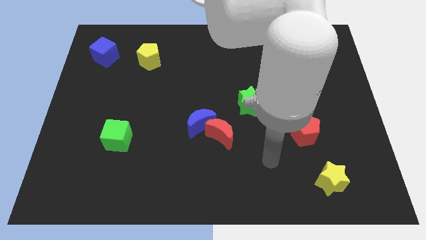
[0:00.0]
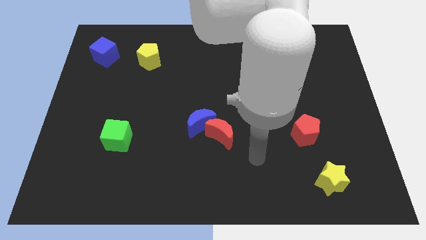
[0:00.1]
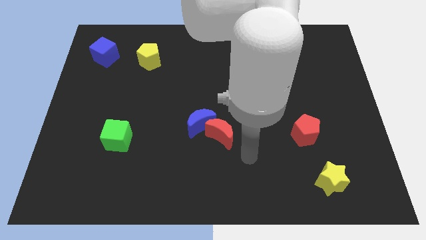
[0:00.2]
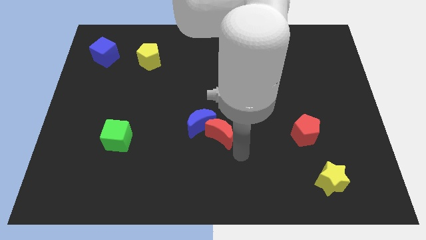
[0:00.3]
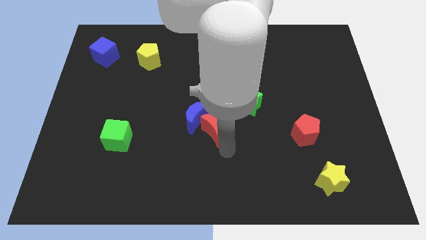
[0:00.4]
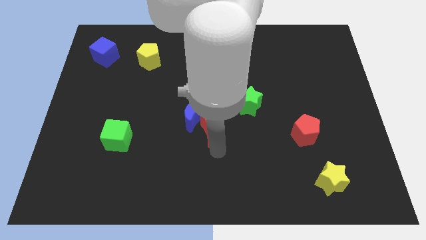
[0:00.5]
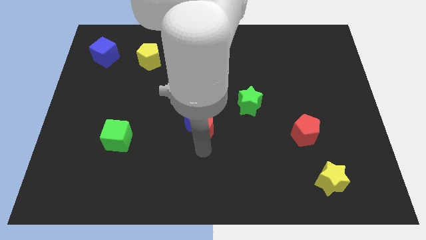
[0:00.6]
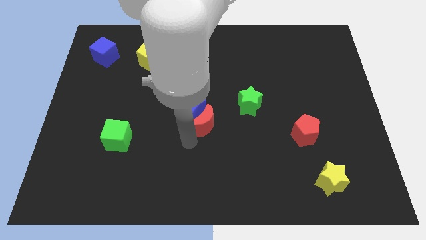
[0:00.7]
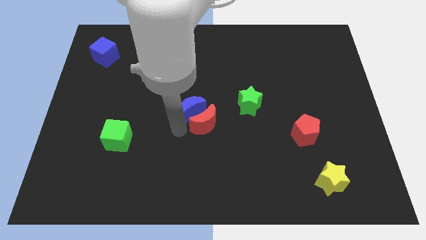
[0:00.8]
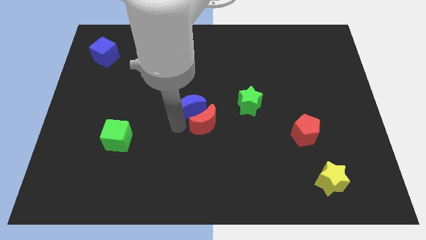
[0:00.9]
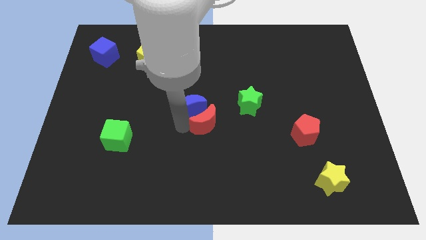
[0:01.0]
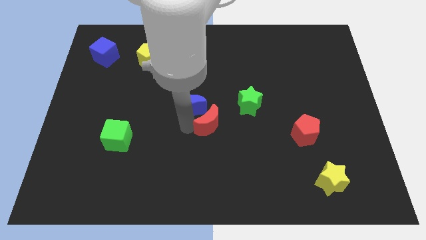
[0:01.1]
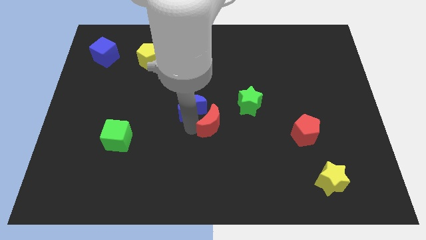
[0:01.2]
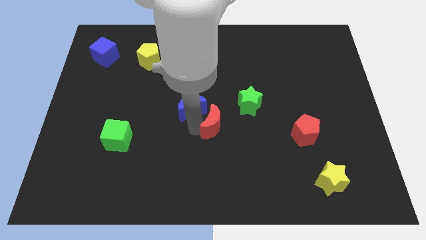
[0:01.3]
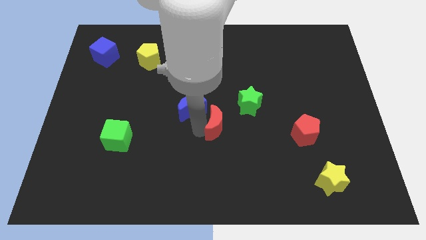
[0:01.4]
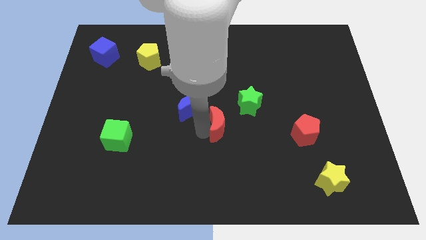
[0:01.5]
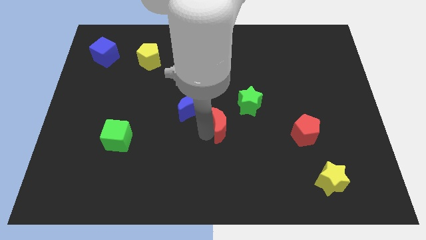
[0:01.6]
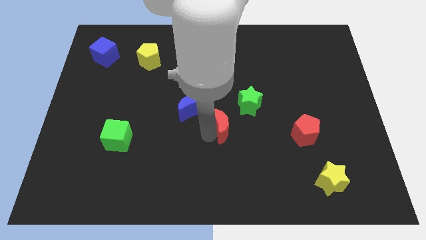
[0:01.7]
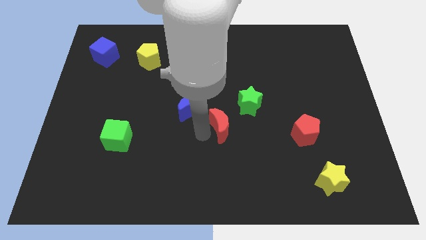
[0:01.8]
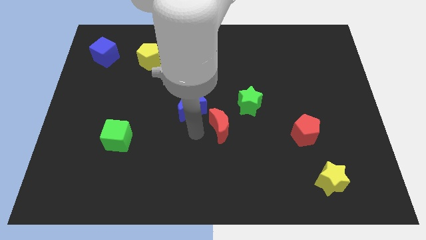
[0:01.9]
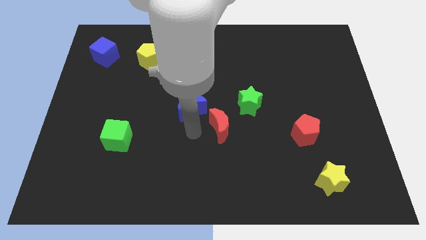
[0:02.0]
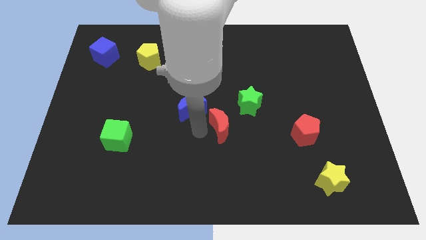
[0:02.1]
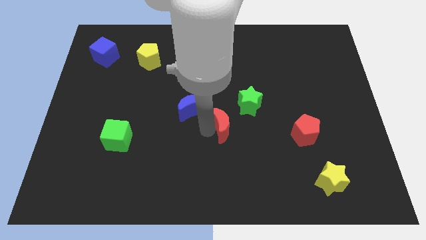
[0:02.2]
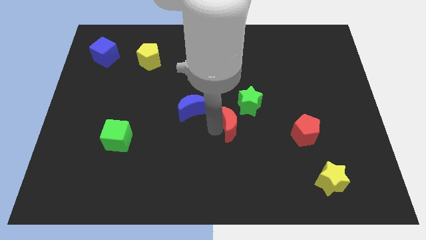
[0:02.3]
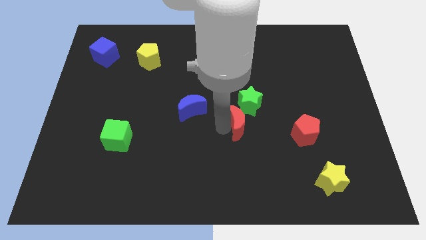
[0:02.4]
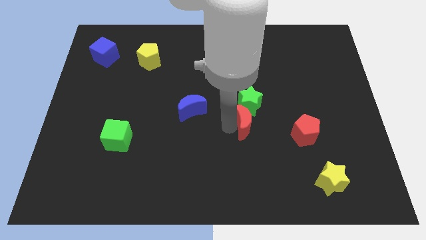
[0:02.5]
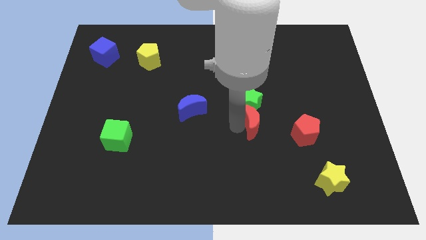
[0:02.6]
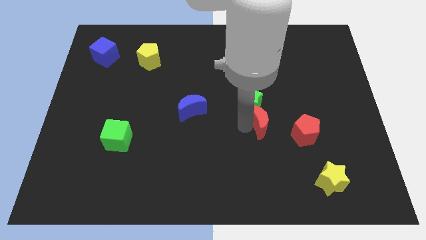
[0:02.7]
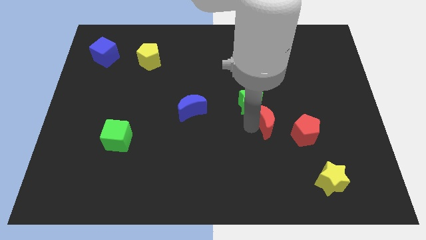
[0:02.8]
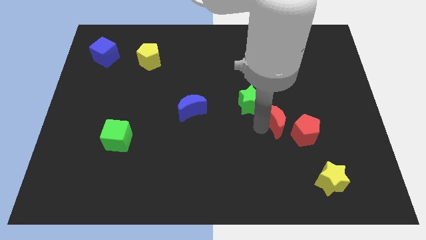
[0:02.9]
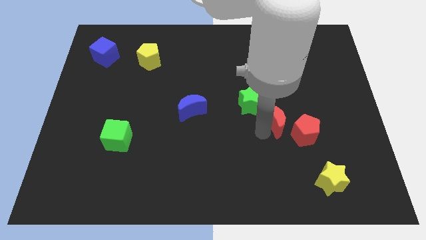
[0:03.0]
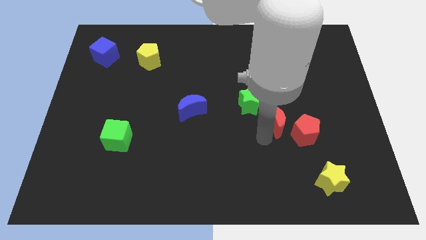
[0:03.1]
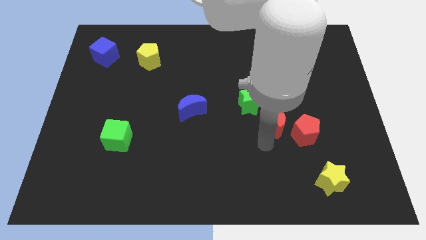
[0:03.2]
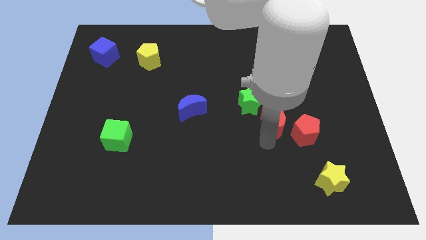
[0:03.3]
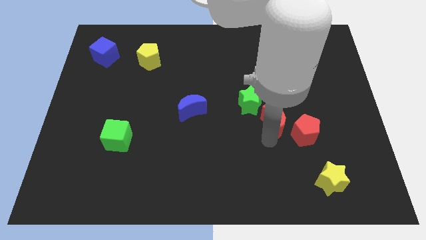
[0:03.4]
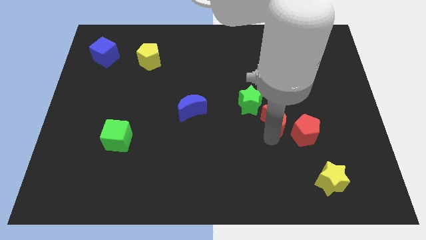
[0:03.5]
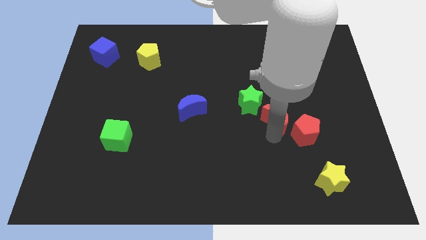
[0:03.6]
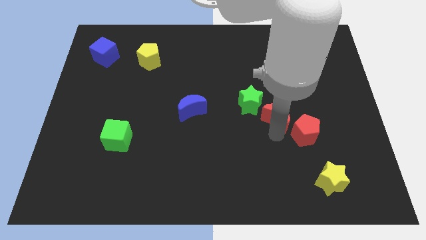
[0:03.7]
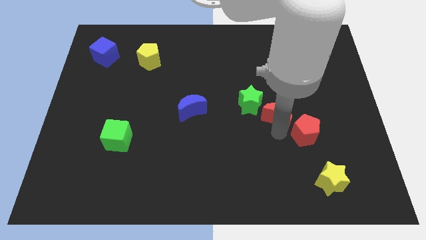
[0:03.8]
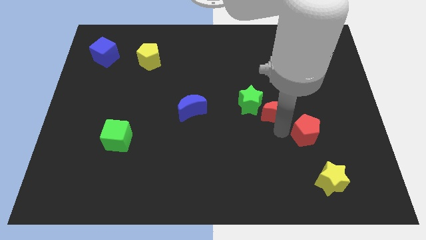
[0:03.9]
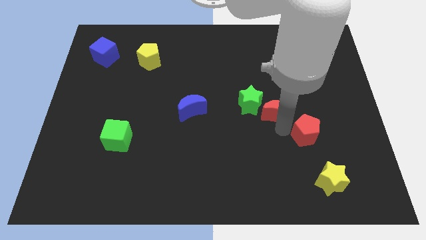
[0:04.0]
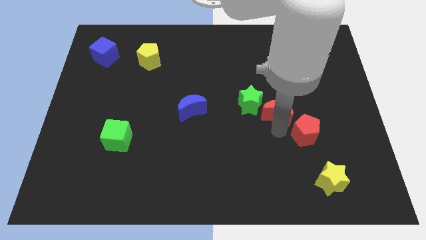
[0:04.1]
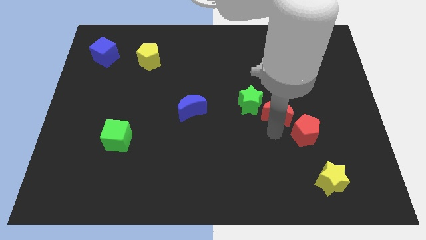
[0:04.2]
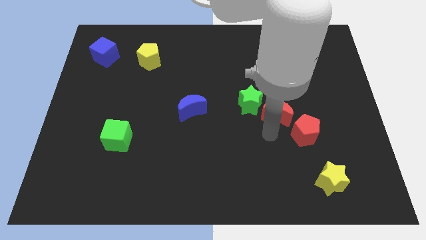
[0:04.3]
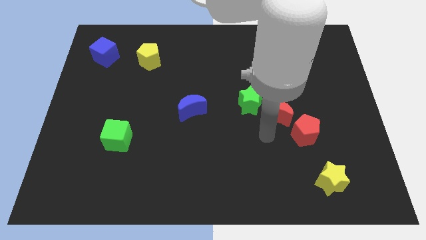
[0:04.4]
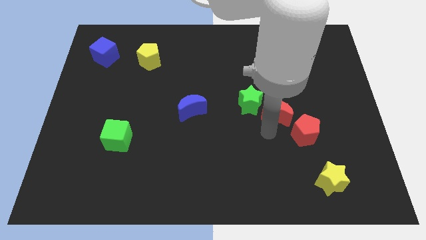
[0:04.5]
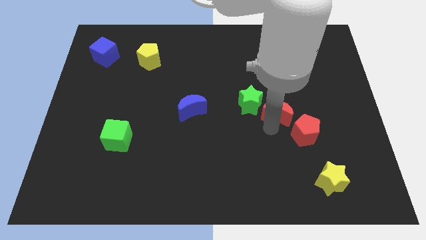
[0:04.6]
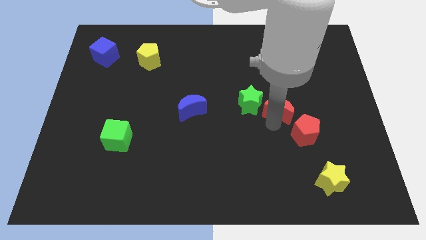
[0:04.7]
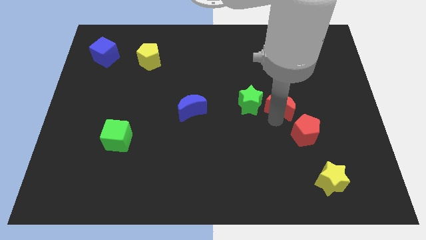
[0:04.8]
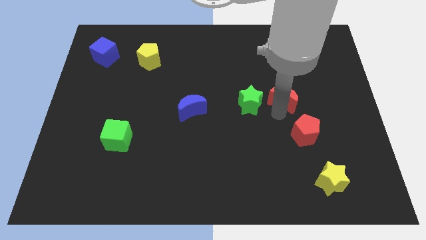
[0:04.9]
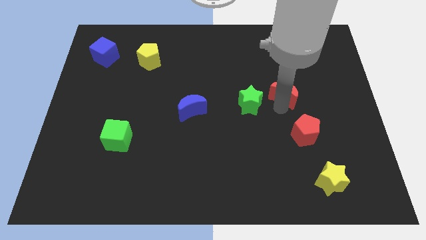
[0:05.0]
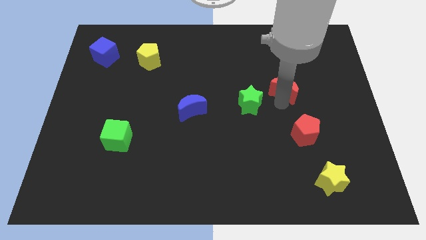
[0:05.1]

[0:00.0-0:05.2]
slide the red moon up and to the right

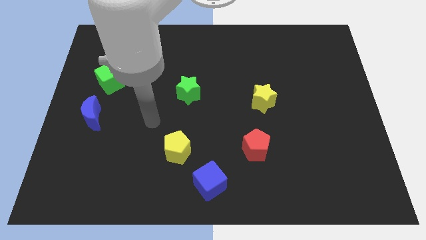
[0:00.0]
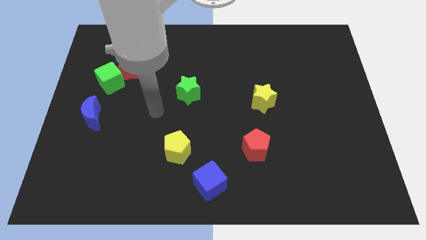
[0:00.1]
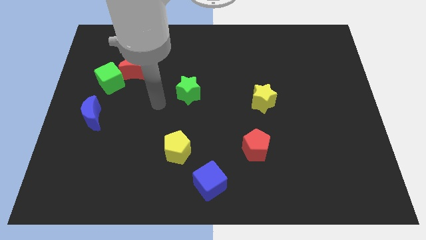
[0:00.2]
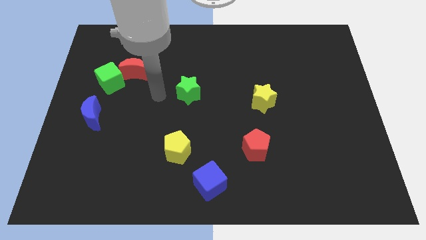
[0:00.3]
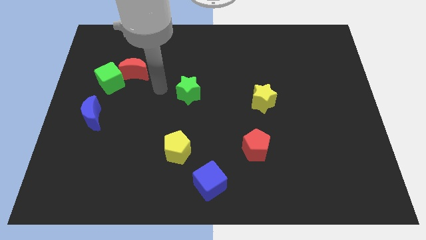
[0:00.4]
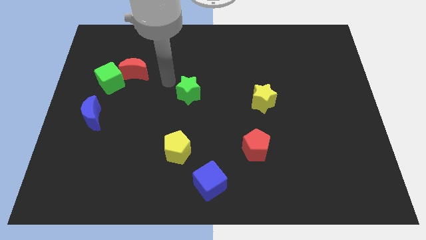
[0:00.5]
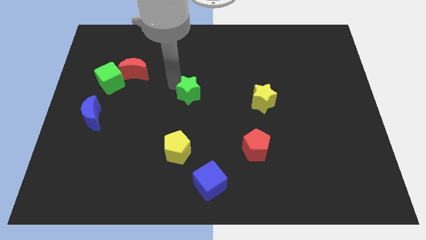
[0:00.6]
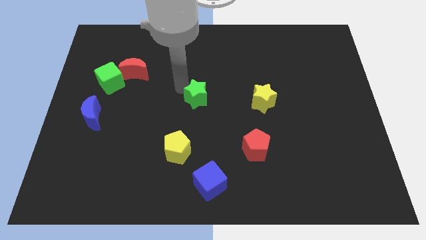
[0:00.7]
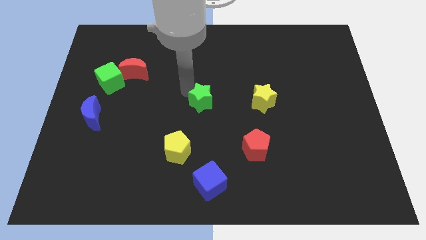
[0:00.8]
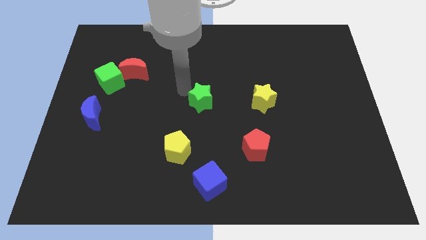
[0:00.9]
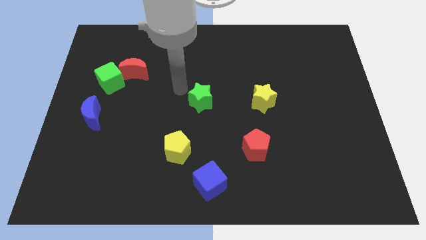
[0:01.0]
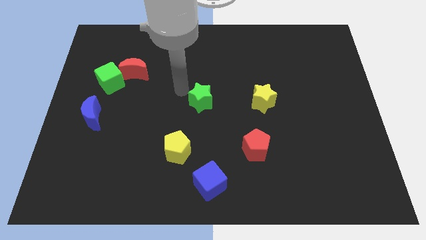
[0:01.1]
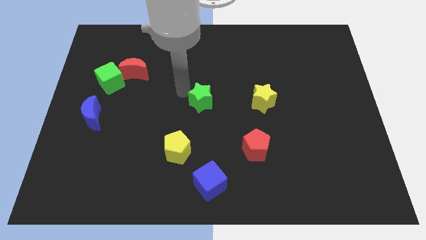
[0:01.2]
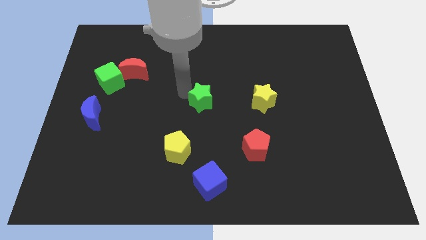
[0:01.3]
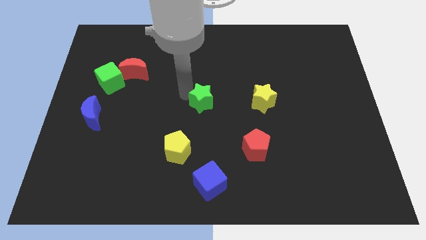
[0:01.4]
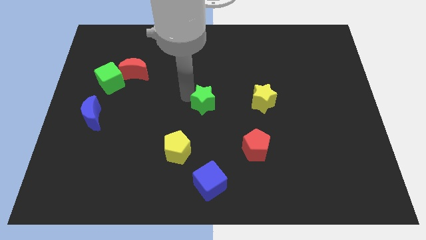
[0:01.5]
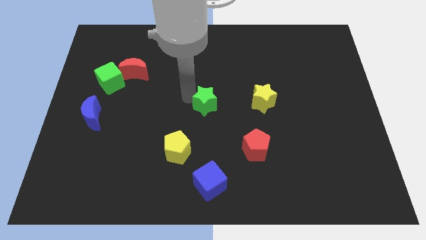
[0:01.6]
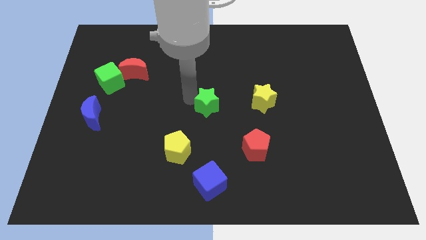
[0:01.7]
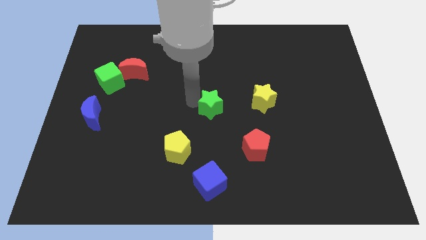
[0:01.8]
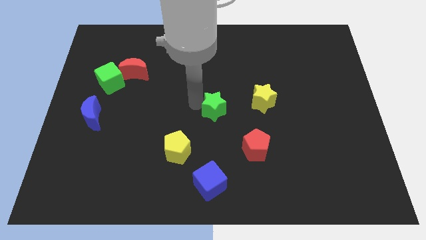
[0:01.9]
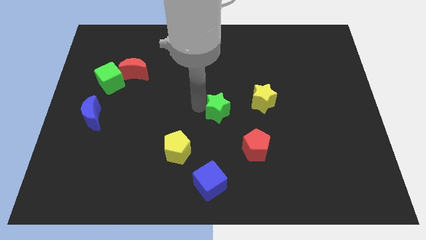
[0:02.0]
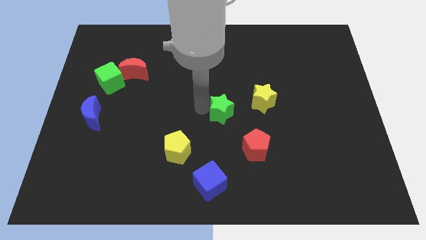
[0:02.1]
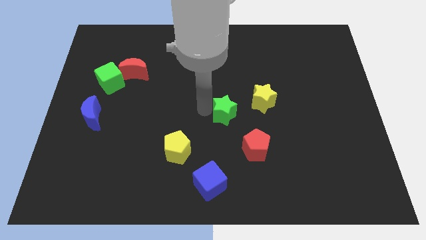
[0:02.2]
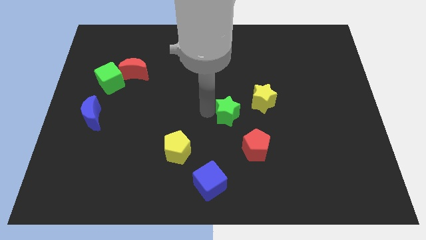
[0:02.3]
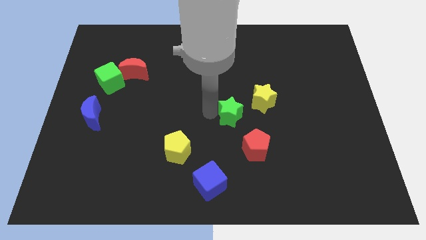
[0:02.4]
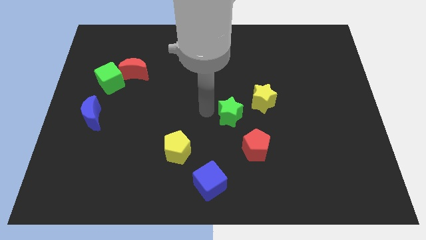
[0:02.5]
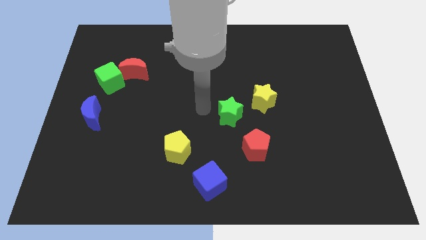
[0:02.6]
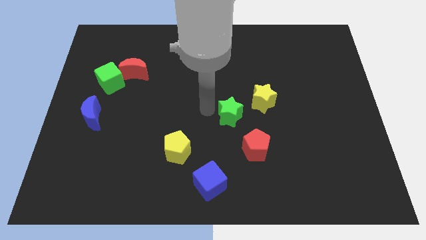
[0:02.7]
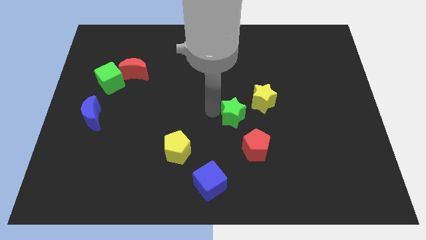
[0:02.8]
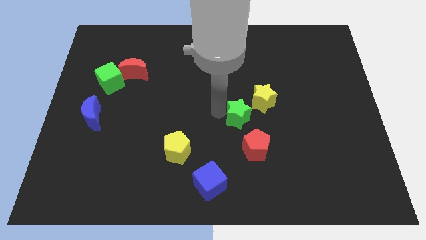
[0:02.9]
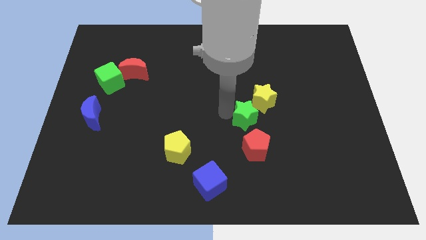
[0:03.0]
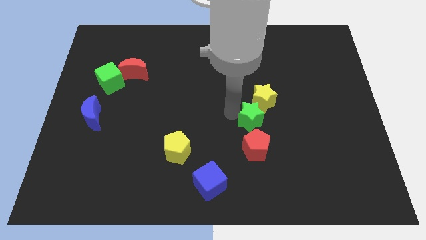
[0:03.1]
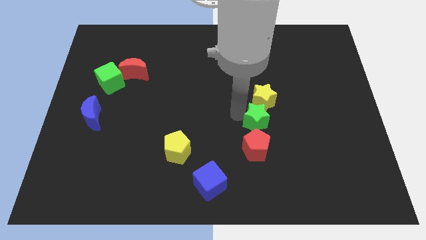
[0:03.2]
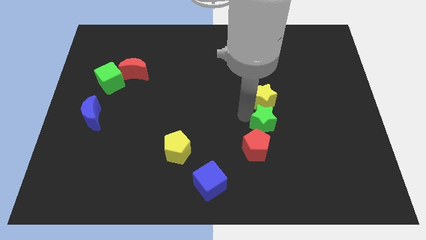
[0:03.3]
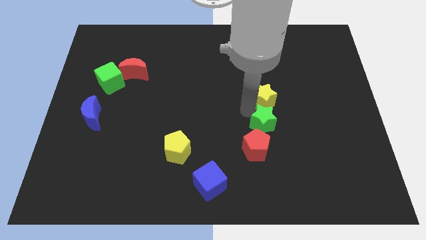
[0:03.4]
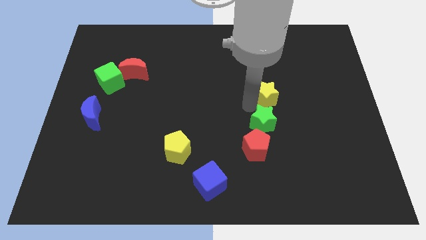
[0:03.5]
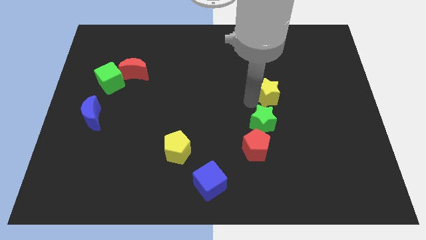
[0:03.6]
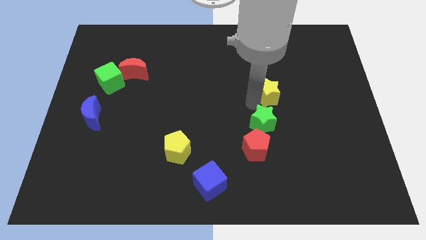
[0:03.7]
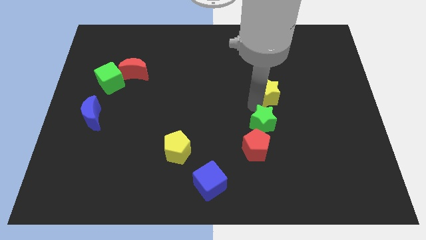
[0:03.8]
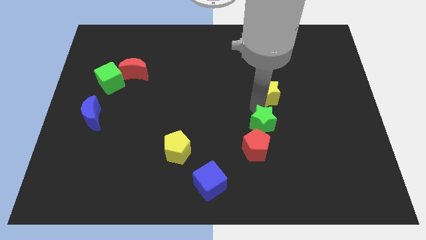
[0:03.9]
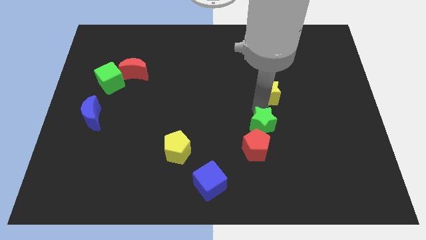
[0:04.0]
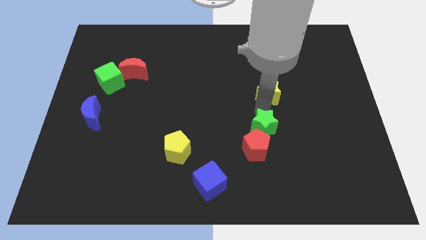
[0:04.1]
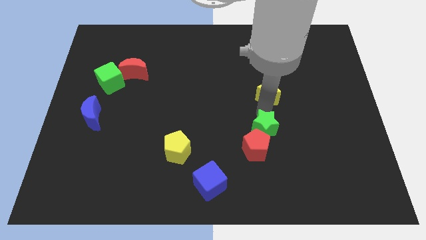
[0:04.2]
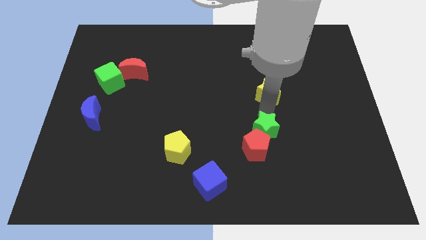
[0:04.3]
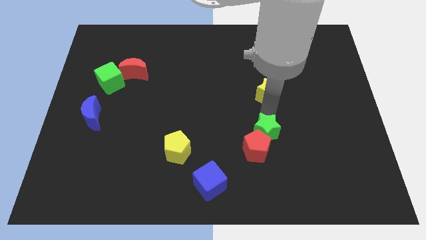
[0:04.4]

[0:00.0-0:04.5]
push the green star downwards and then right
